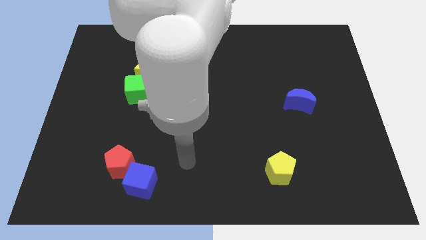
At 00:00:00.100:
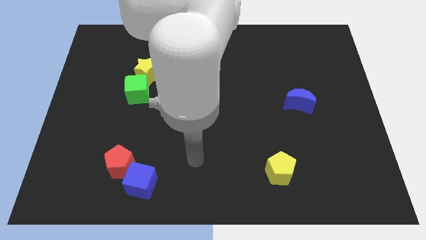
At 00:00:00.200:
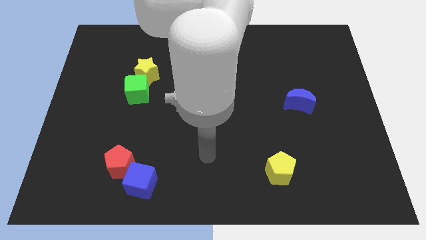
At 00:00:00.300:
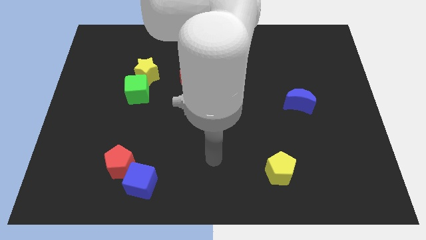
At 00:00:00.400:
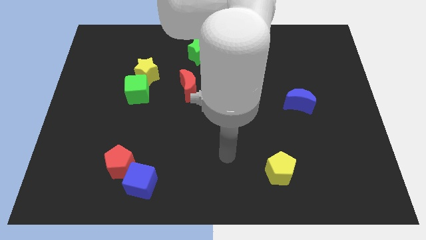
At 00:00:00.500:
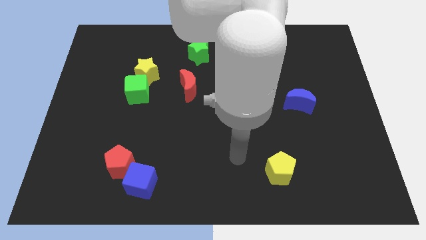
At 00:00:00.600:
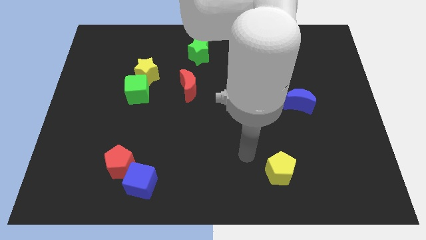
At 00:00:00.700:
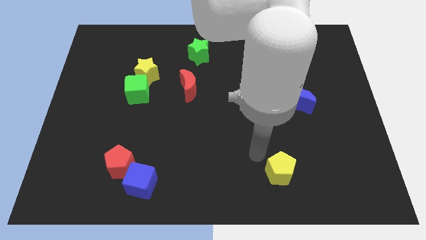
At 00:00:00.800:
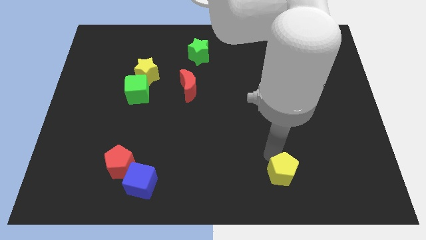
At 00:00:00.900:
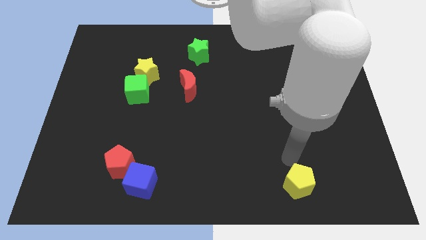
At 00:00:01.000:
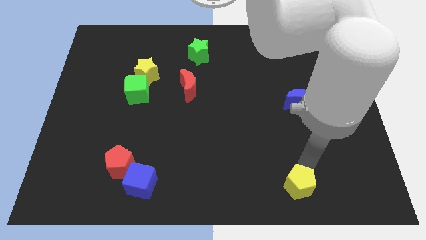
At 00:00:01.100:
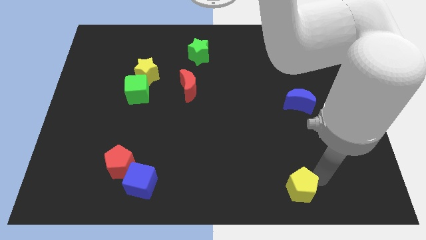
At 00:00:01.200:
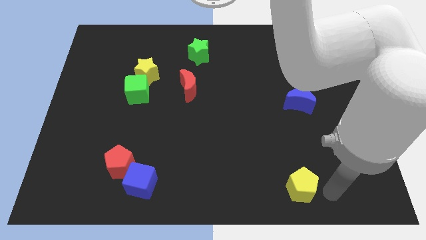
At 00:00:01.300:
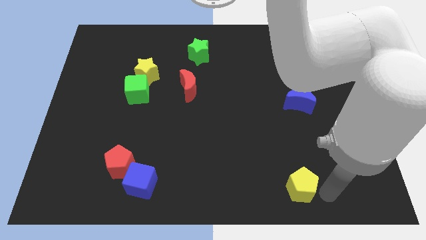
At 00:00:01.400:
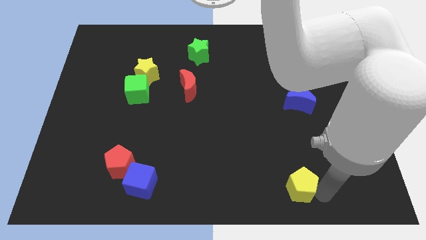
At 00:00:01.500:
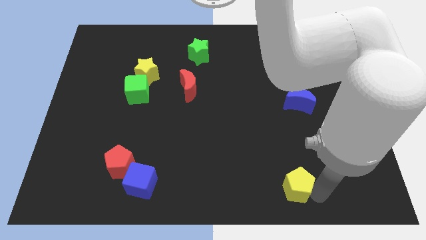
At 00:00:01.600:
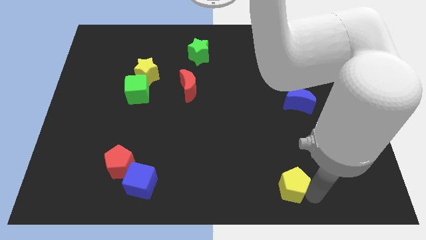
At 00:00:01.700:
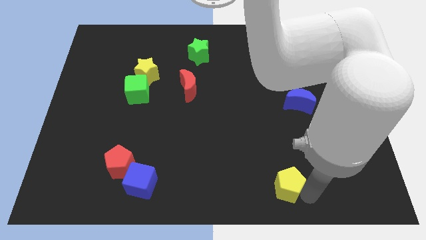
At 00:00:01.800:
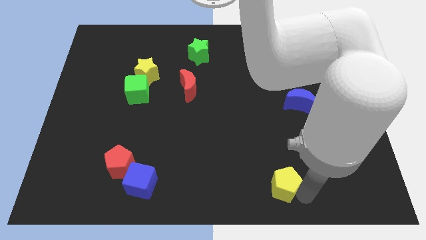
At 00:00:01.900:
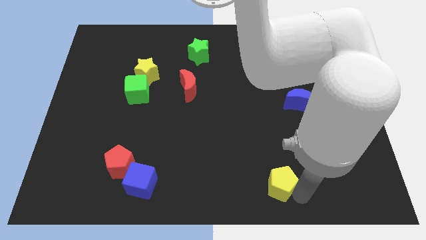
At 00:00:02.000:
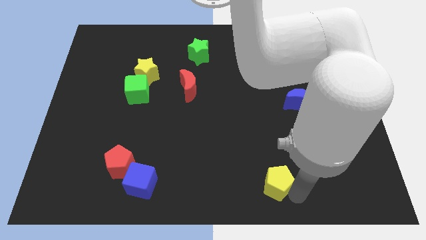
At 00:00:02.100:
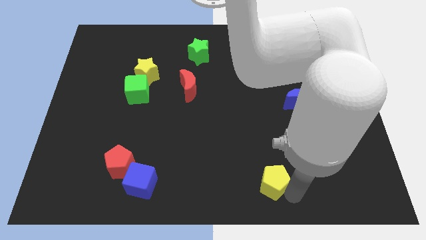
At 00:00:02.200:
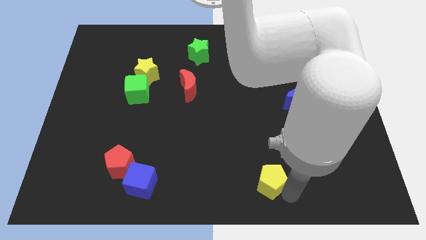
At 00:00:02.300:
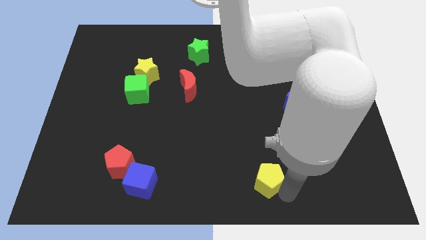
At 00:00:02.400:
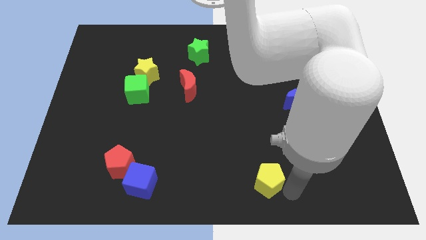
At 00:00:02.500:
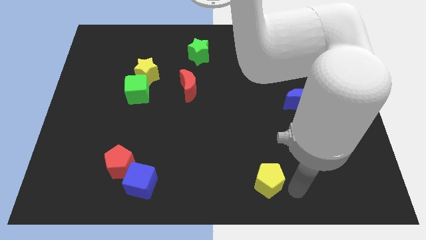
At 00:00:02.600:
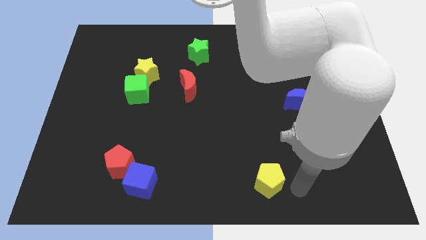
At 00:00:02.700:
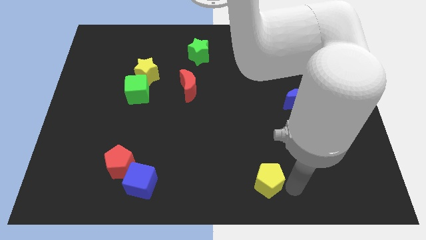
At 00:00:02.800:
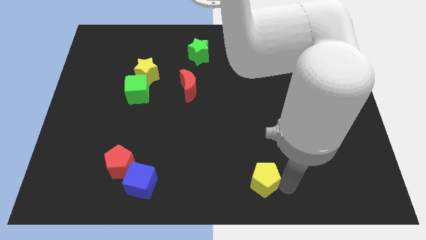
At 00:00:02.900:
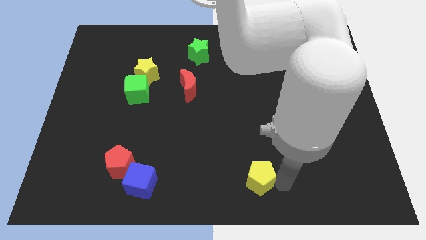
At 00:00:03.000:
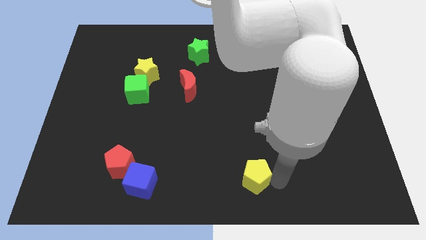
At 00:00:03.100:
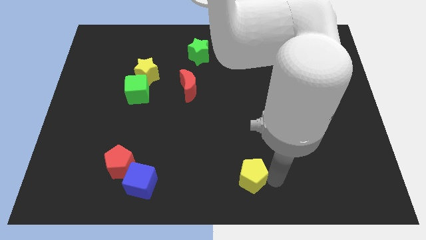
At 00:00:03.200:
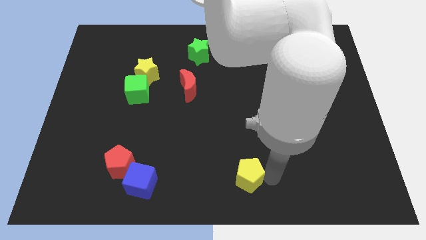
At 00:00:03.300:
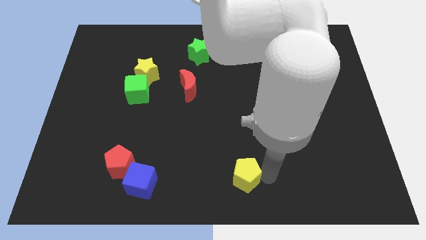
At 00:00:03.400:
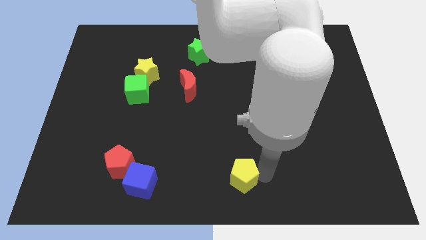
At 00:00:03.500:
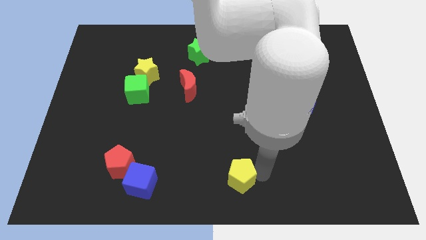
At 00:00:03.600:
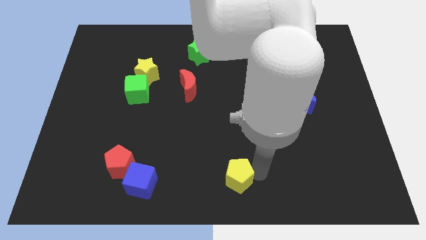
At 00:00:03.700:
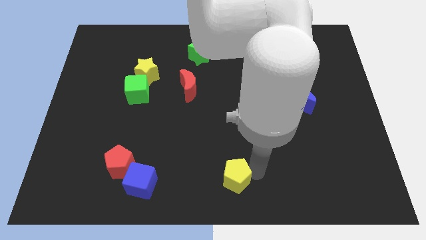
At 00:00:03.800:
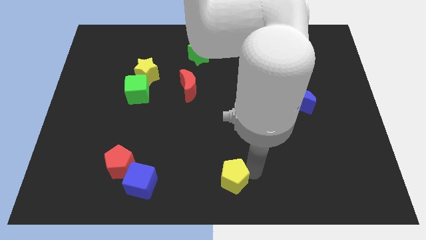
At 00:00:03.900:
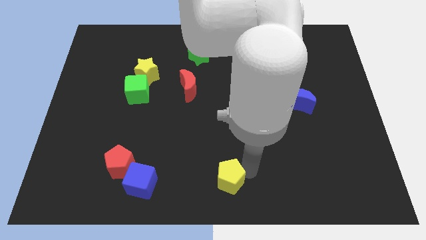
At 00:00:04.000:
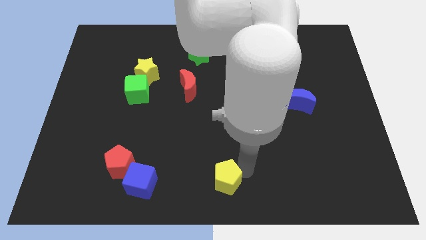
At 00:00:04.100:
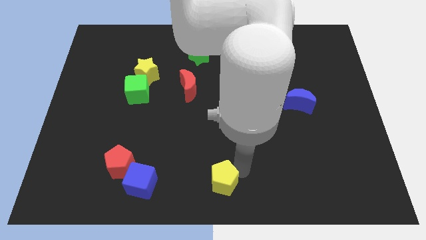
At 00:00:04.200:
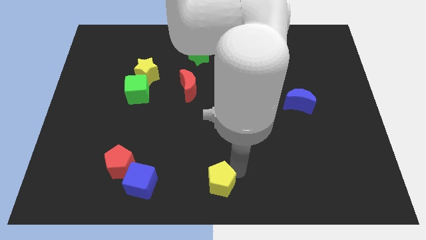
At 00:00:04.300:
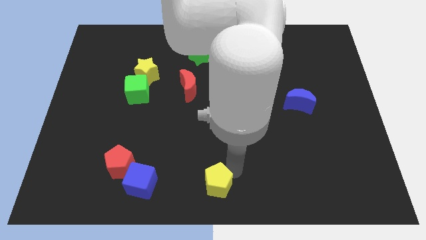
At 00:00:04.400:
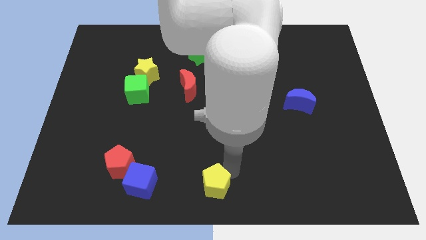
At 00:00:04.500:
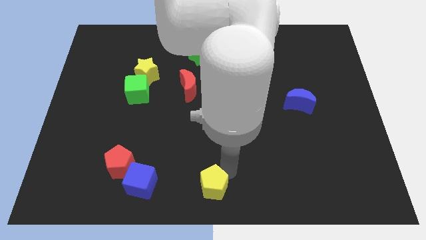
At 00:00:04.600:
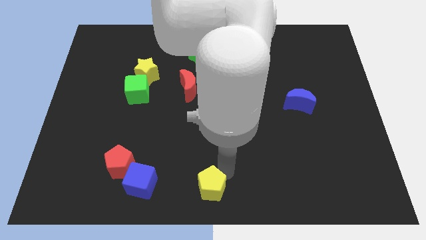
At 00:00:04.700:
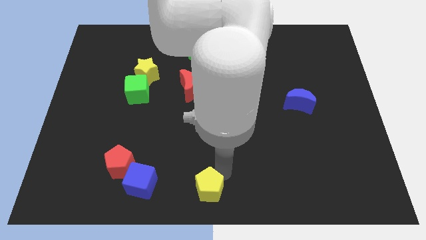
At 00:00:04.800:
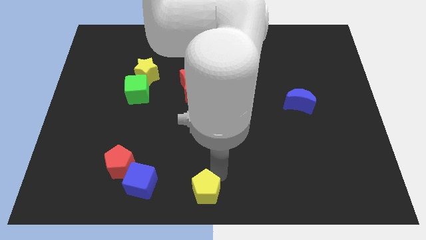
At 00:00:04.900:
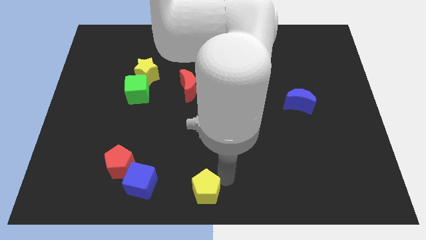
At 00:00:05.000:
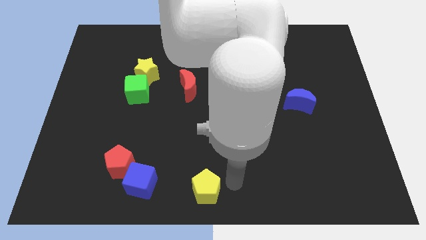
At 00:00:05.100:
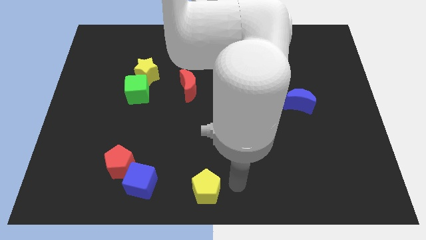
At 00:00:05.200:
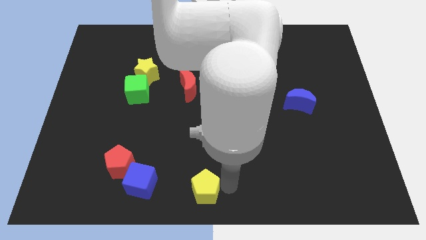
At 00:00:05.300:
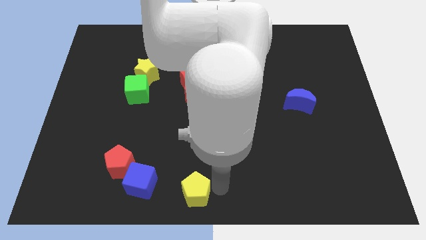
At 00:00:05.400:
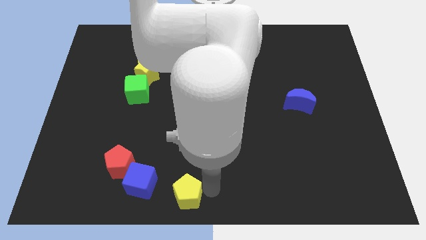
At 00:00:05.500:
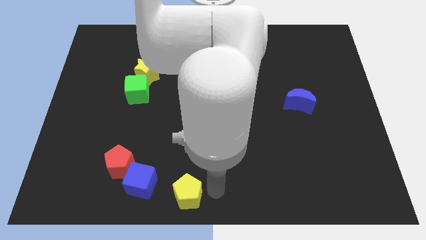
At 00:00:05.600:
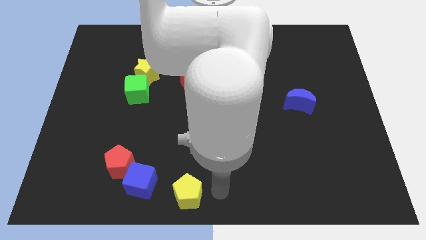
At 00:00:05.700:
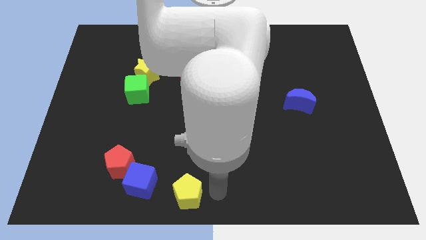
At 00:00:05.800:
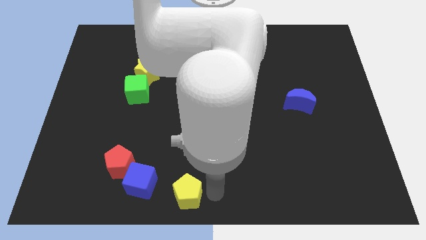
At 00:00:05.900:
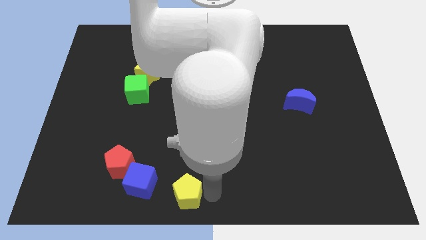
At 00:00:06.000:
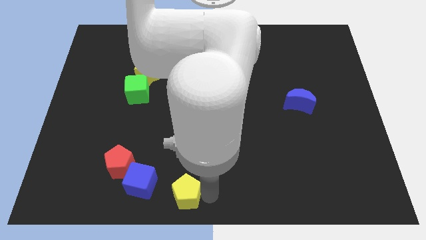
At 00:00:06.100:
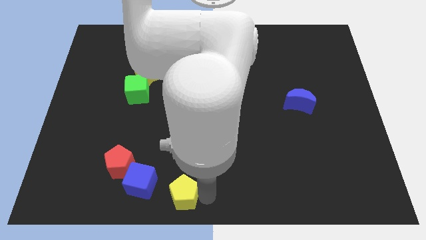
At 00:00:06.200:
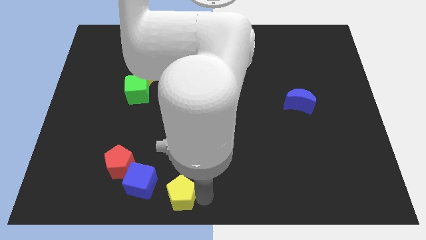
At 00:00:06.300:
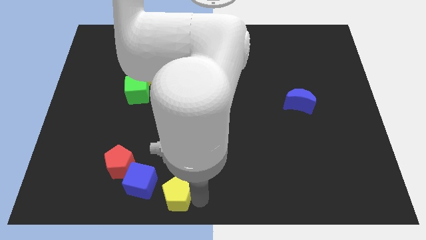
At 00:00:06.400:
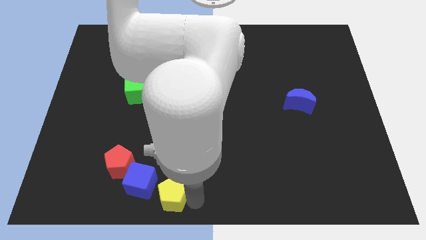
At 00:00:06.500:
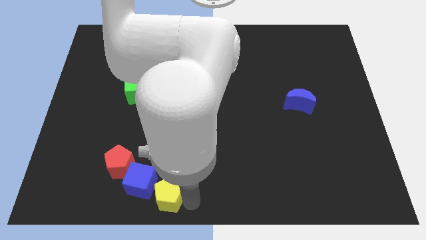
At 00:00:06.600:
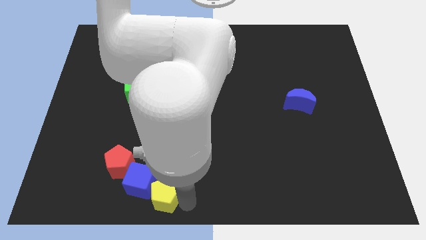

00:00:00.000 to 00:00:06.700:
push the yellow pentagon next to the blue cube
